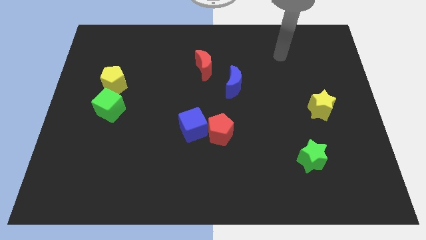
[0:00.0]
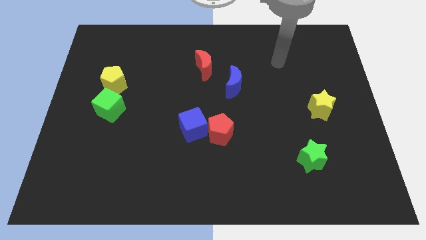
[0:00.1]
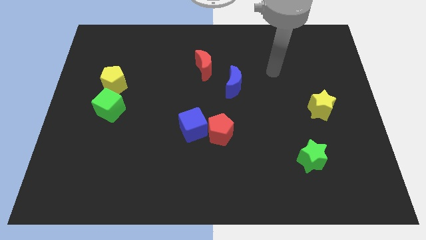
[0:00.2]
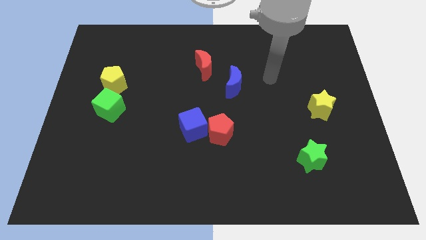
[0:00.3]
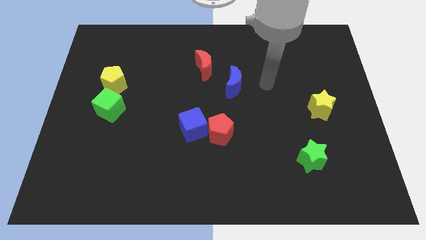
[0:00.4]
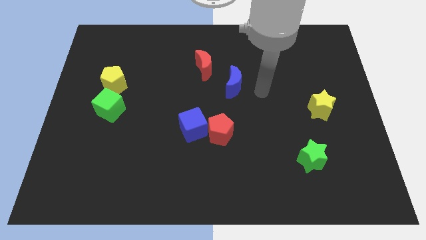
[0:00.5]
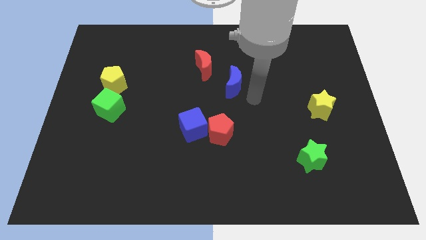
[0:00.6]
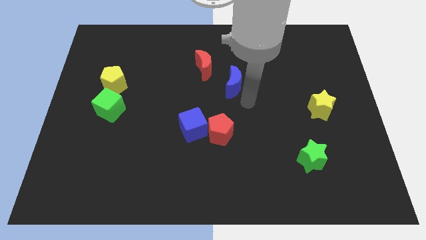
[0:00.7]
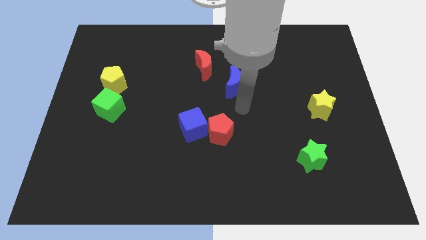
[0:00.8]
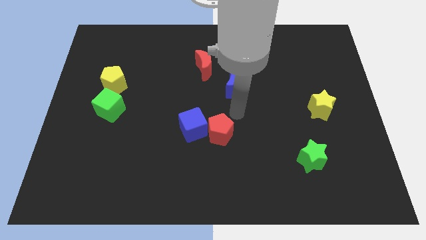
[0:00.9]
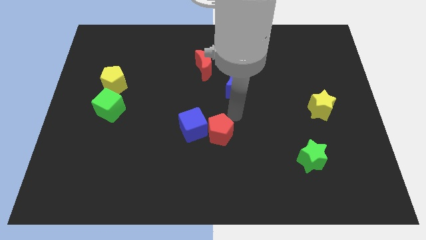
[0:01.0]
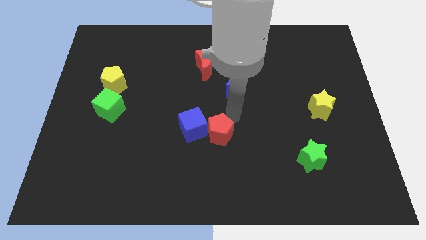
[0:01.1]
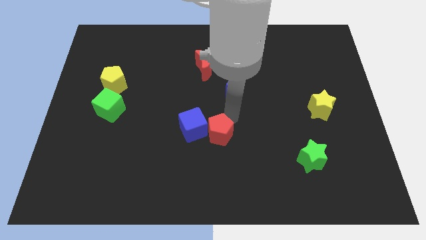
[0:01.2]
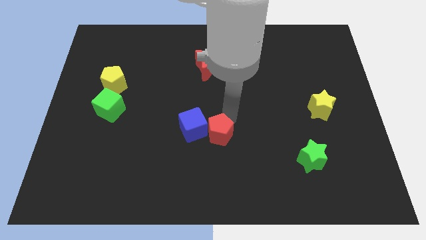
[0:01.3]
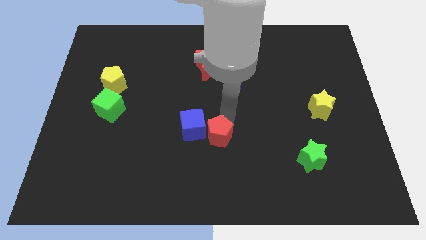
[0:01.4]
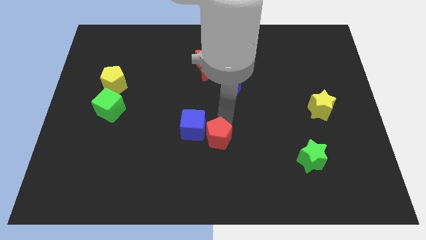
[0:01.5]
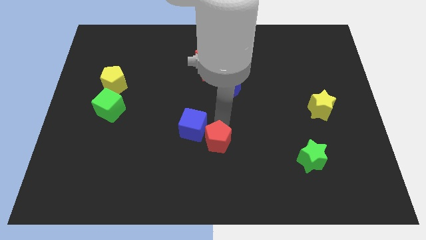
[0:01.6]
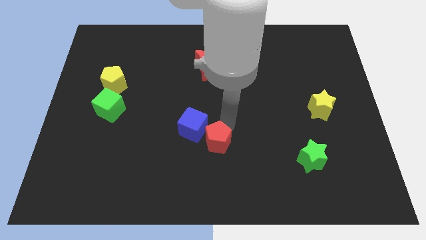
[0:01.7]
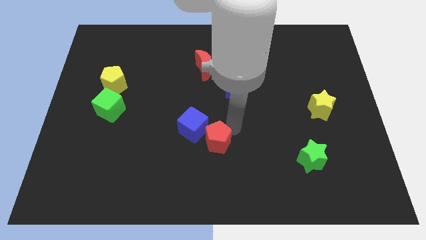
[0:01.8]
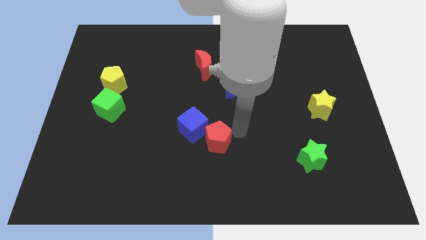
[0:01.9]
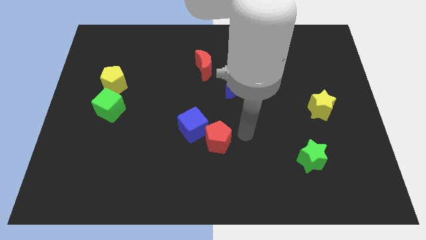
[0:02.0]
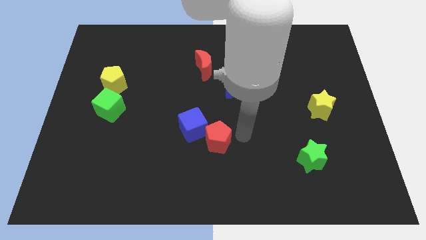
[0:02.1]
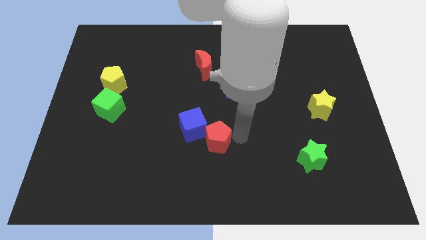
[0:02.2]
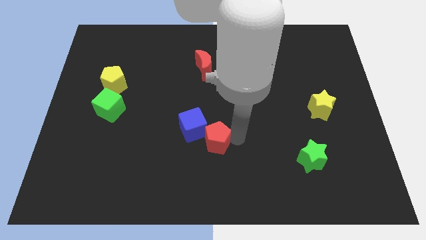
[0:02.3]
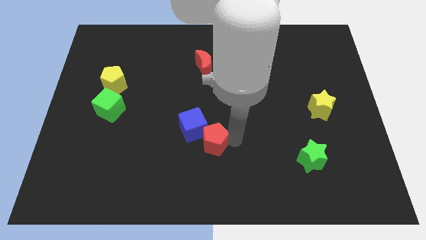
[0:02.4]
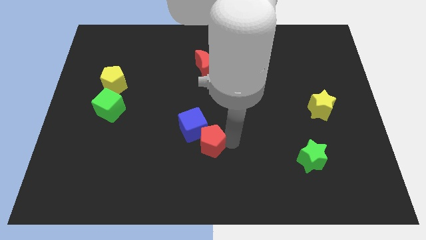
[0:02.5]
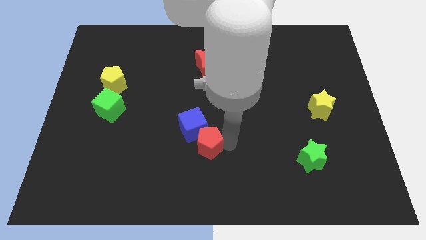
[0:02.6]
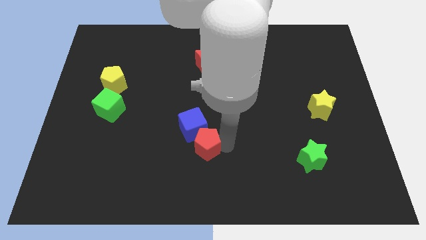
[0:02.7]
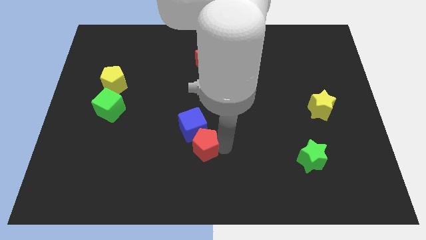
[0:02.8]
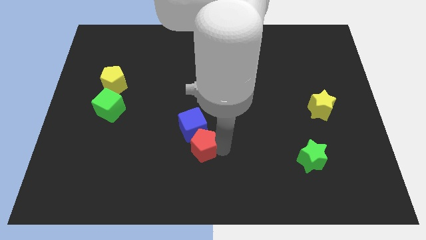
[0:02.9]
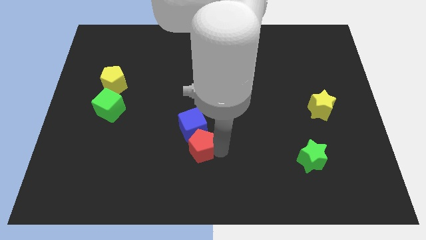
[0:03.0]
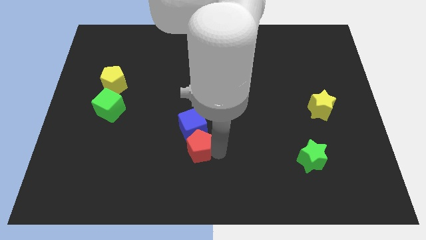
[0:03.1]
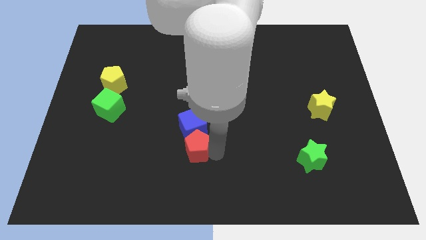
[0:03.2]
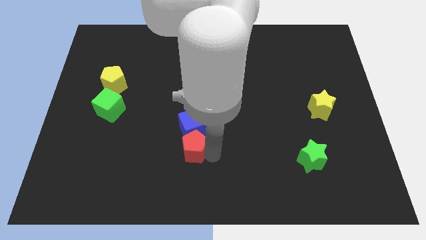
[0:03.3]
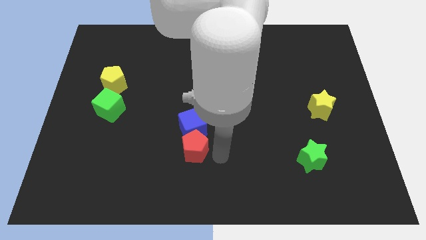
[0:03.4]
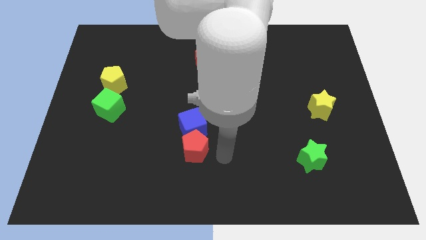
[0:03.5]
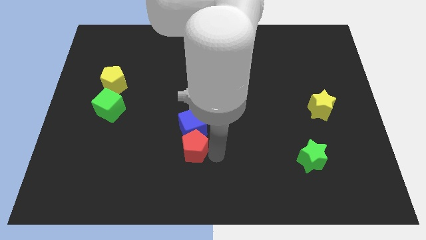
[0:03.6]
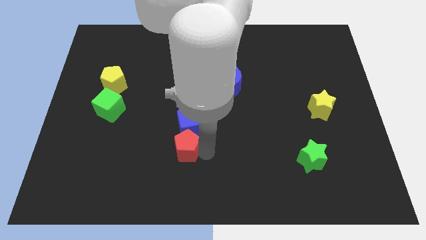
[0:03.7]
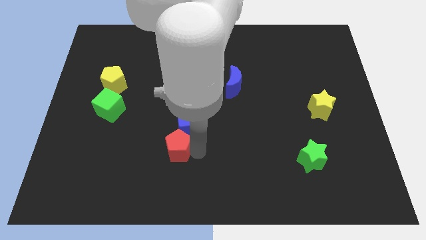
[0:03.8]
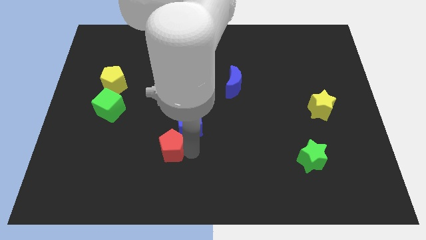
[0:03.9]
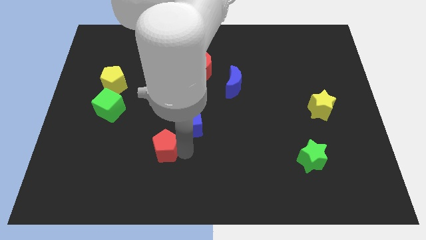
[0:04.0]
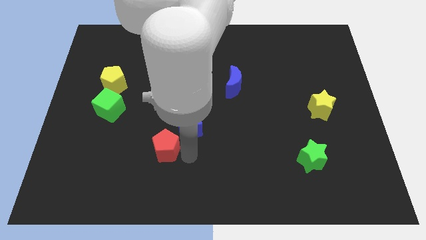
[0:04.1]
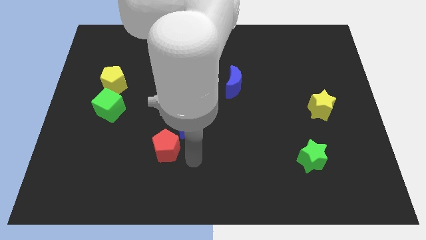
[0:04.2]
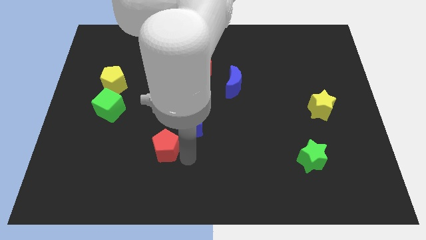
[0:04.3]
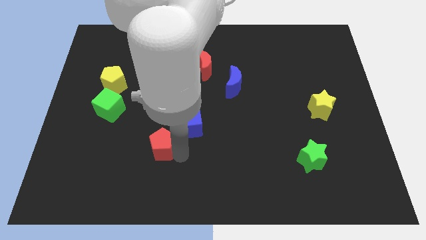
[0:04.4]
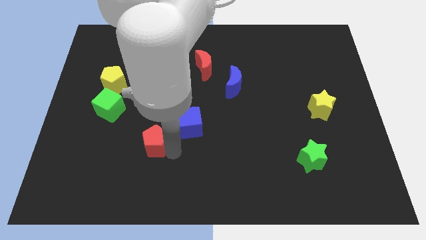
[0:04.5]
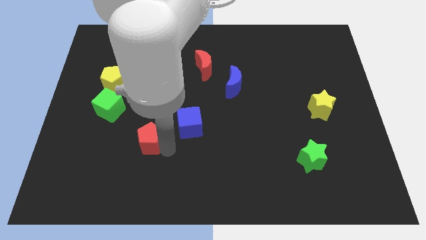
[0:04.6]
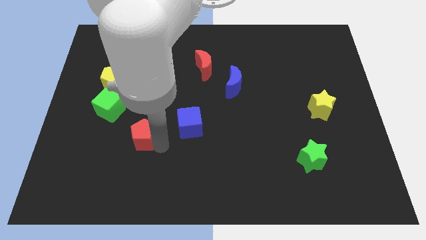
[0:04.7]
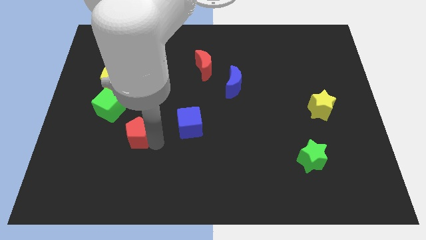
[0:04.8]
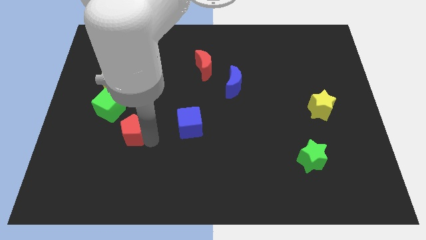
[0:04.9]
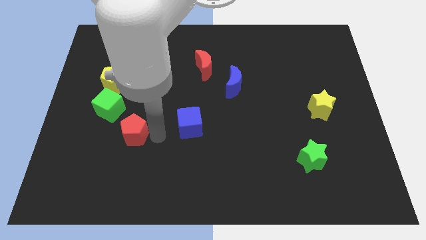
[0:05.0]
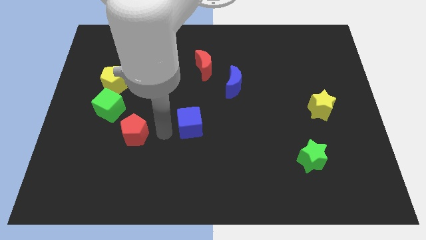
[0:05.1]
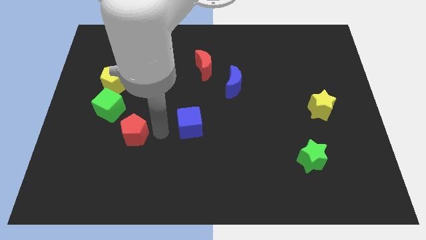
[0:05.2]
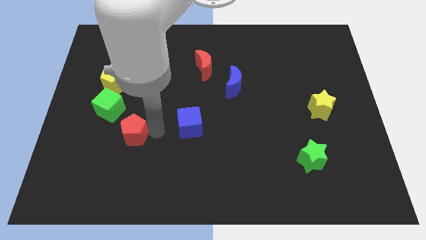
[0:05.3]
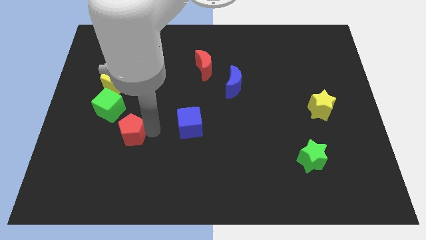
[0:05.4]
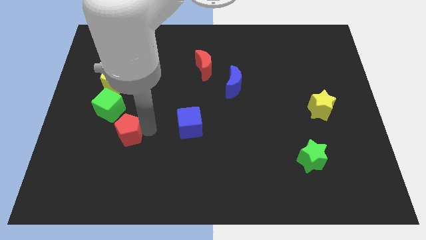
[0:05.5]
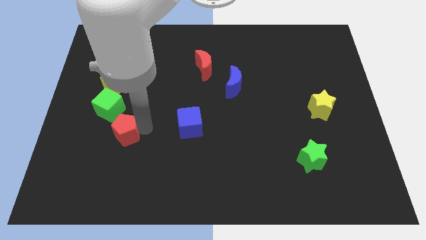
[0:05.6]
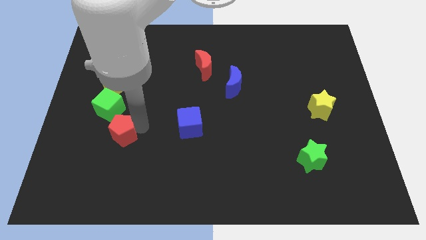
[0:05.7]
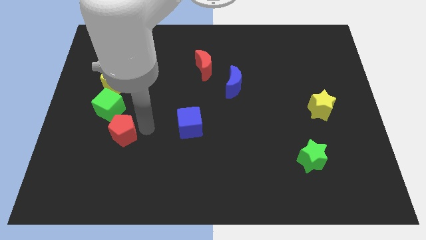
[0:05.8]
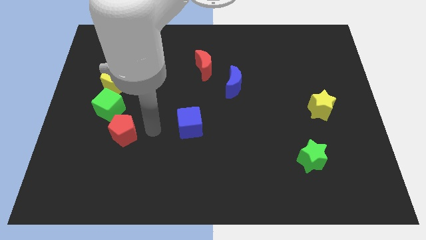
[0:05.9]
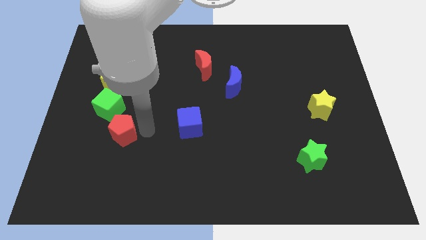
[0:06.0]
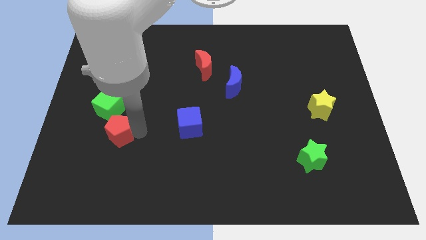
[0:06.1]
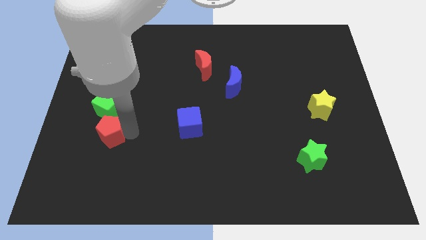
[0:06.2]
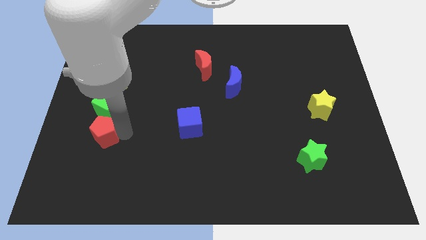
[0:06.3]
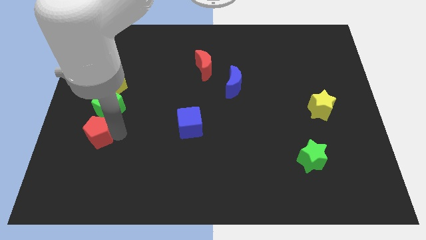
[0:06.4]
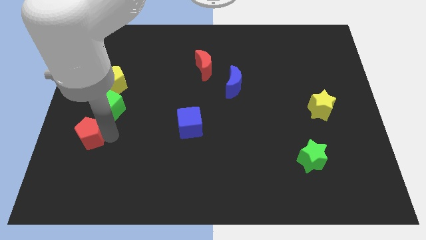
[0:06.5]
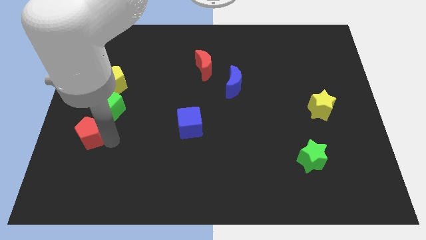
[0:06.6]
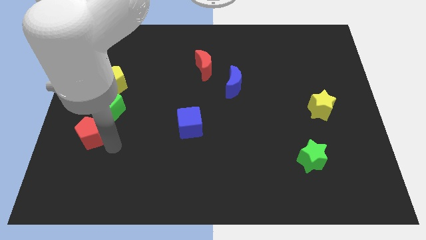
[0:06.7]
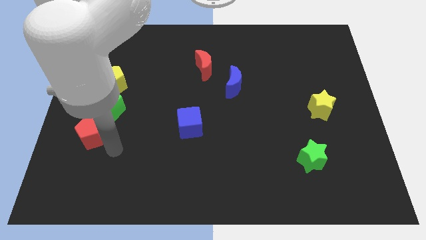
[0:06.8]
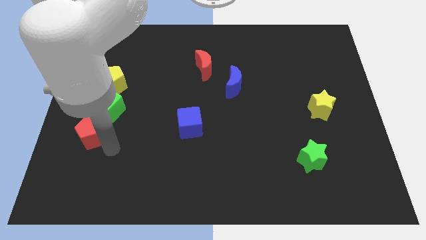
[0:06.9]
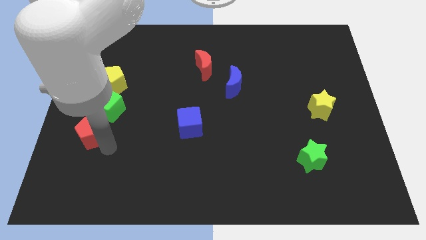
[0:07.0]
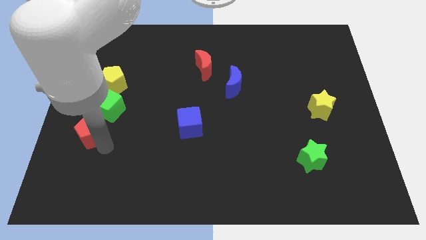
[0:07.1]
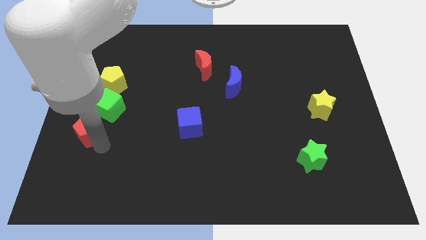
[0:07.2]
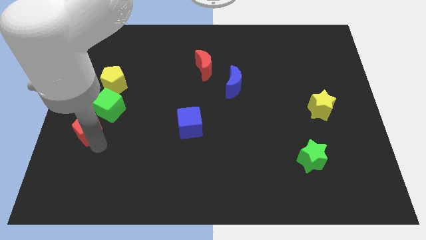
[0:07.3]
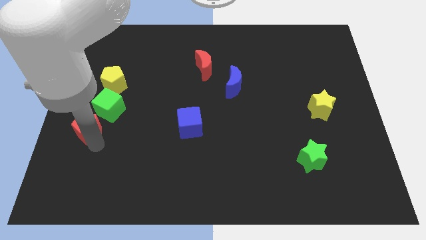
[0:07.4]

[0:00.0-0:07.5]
slide the red pentagon to the left side
